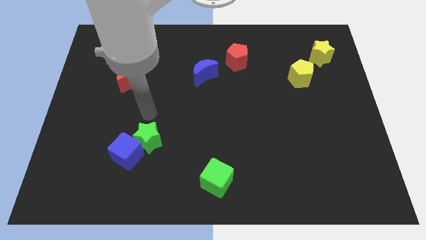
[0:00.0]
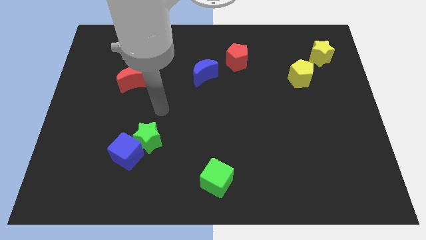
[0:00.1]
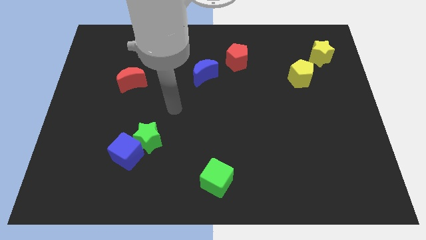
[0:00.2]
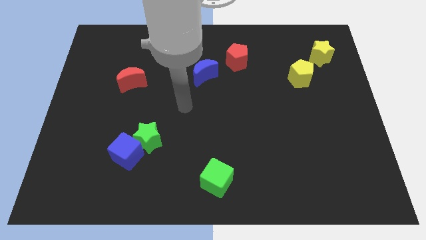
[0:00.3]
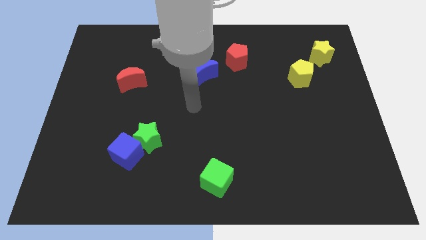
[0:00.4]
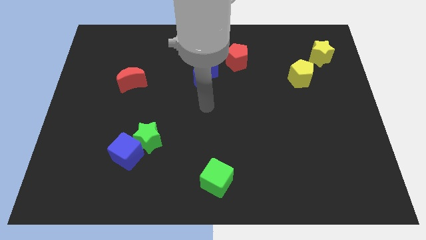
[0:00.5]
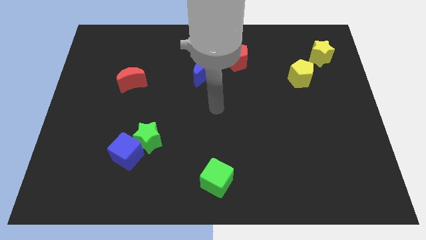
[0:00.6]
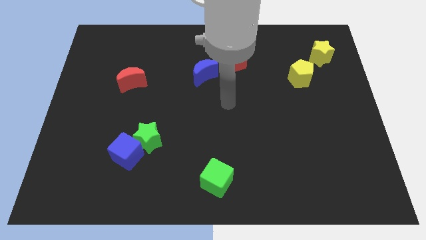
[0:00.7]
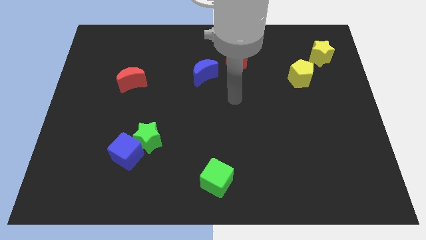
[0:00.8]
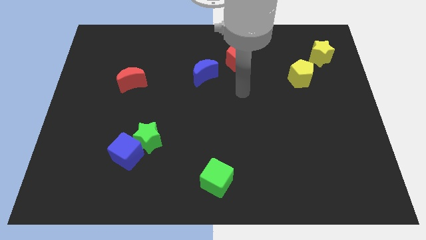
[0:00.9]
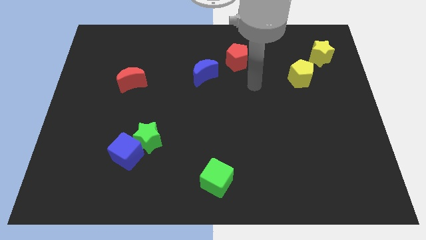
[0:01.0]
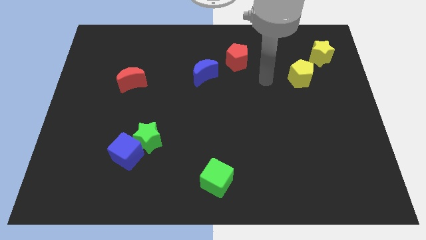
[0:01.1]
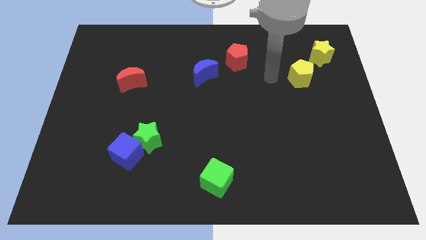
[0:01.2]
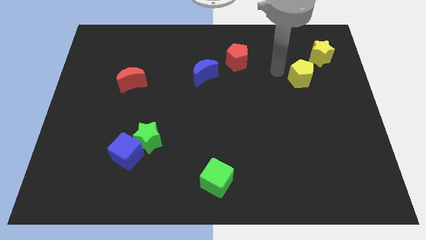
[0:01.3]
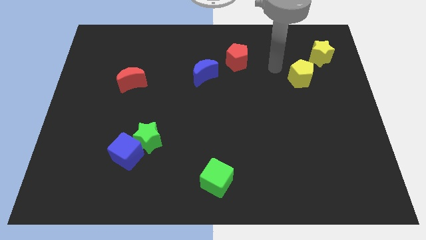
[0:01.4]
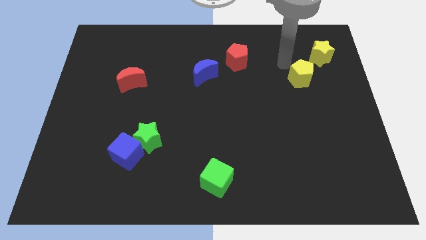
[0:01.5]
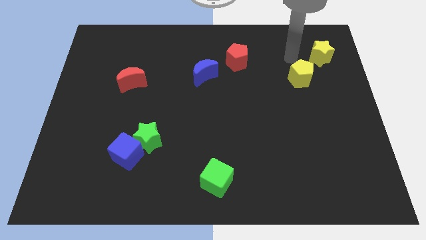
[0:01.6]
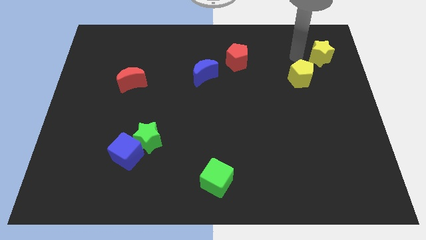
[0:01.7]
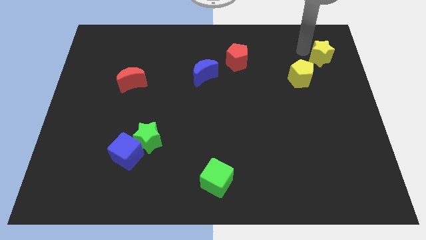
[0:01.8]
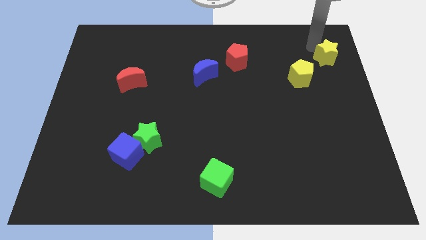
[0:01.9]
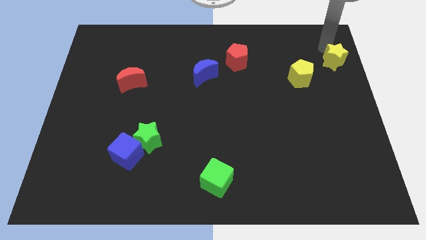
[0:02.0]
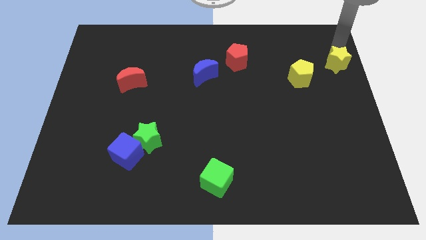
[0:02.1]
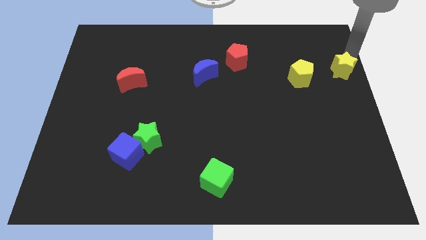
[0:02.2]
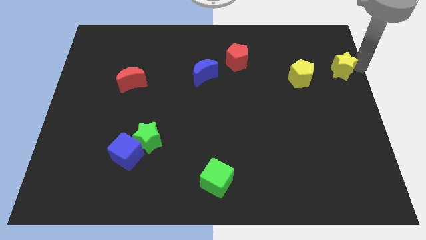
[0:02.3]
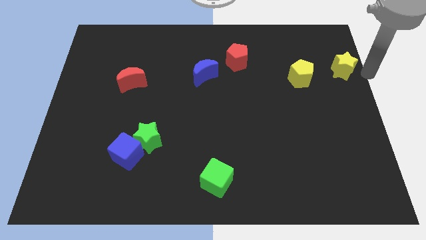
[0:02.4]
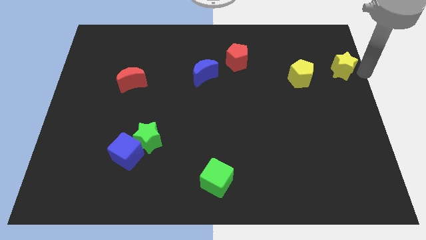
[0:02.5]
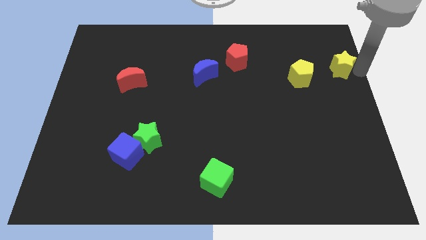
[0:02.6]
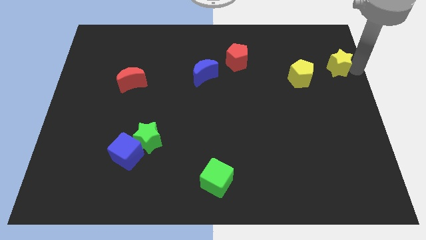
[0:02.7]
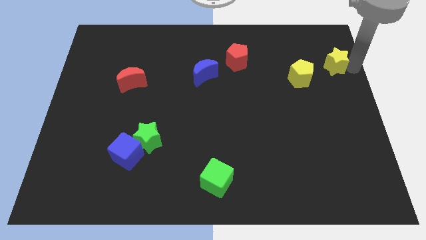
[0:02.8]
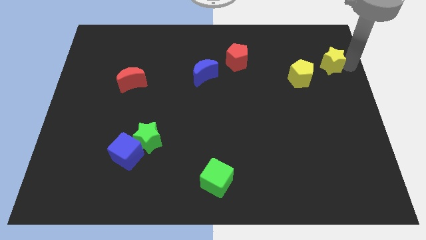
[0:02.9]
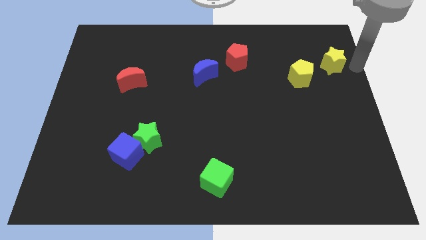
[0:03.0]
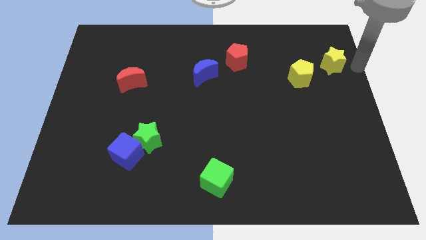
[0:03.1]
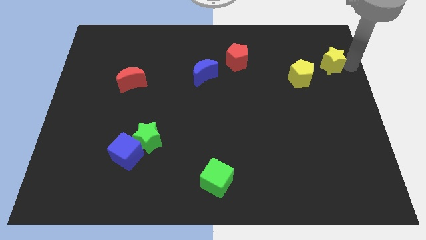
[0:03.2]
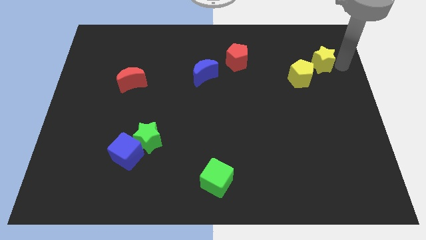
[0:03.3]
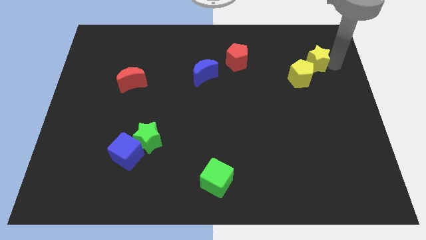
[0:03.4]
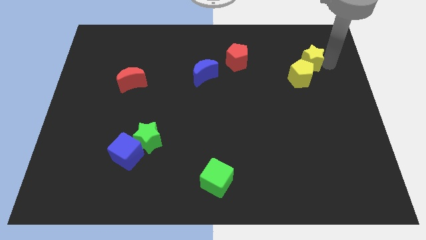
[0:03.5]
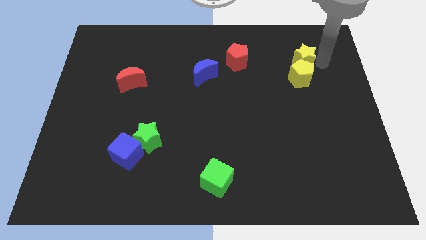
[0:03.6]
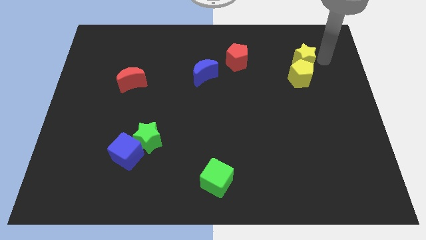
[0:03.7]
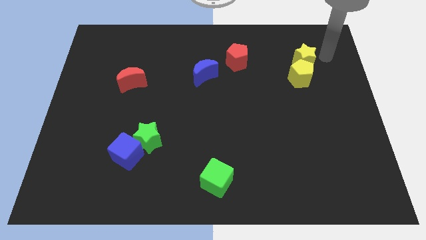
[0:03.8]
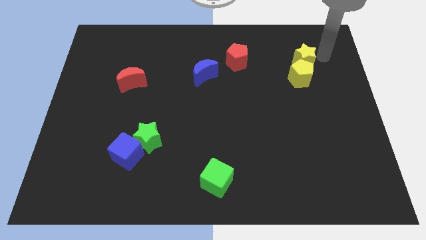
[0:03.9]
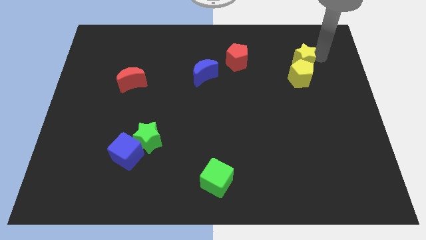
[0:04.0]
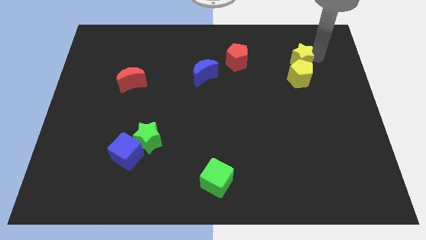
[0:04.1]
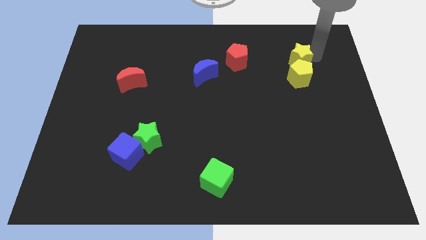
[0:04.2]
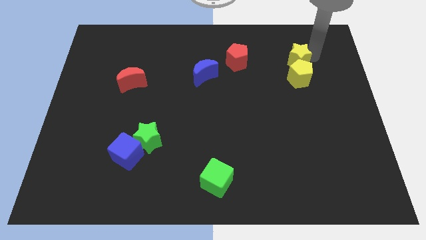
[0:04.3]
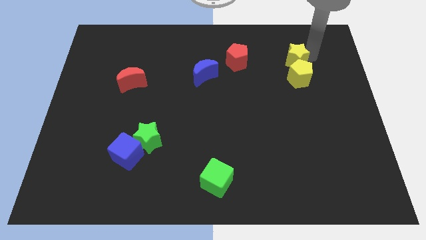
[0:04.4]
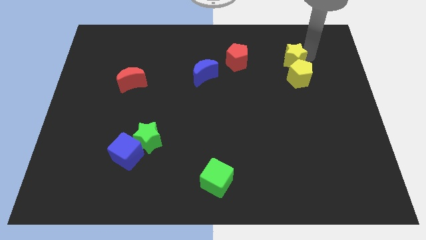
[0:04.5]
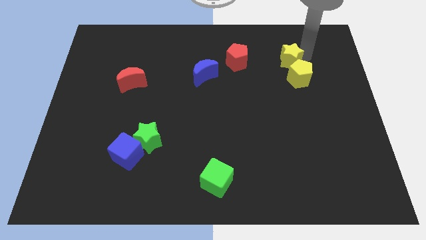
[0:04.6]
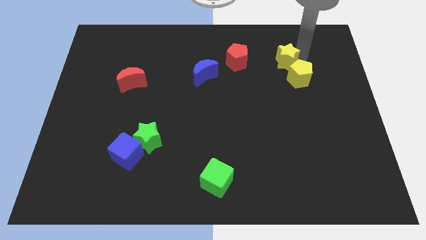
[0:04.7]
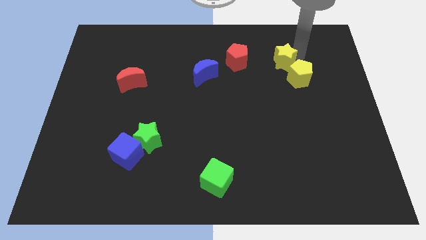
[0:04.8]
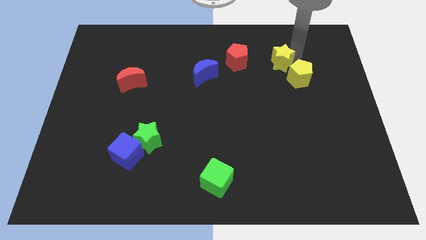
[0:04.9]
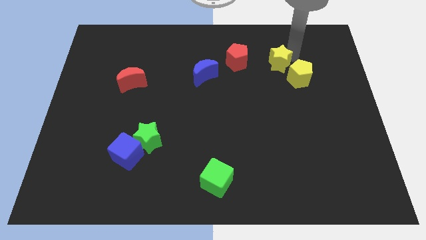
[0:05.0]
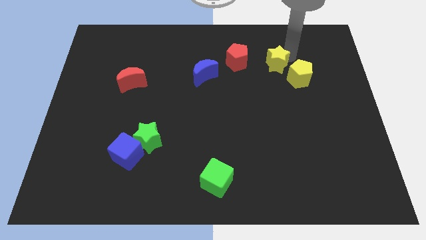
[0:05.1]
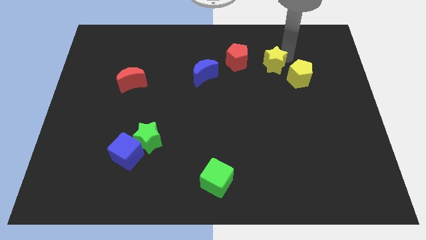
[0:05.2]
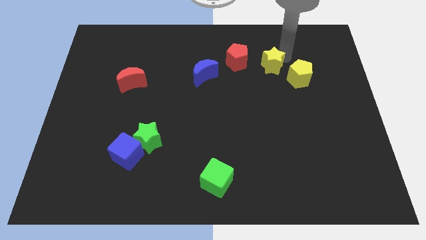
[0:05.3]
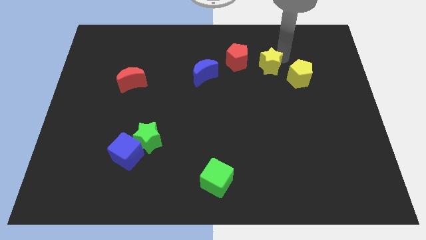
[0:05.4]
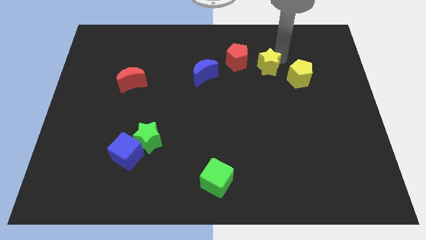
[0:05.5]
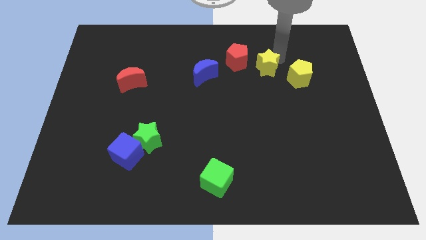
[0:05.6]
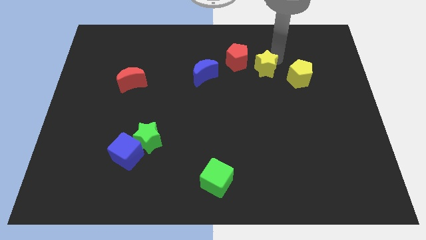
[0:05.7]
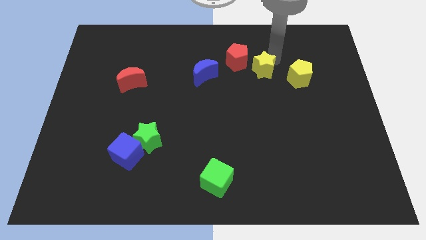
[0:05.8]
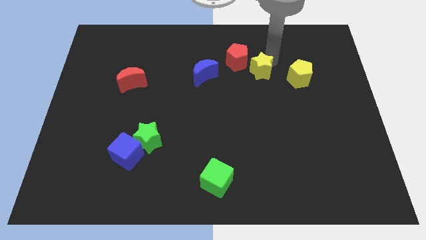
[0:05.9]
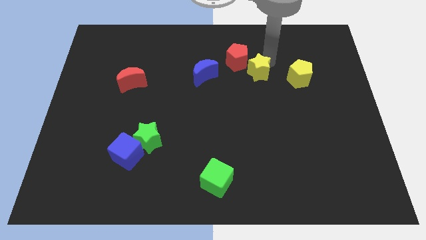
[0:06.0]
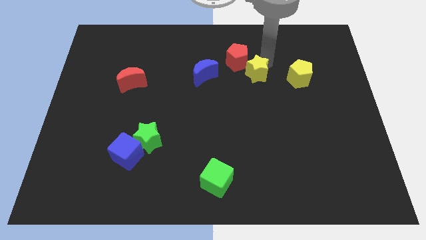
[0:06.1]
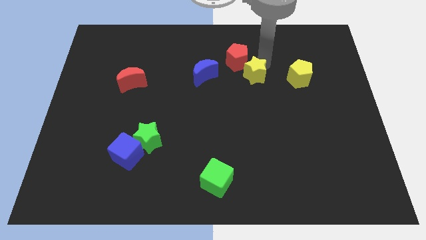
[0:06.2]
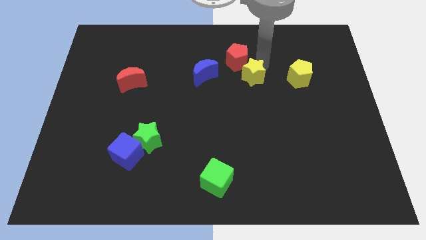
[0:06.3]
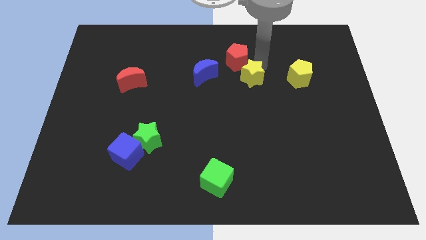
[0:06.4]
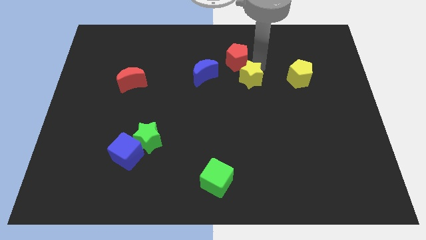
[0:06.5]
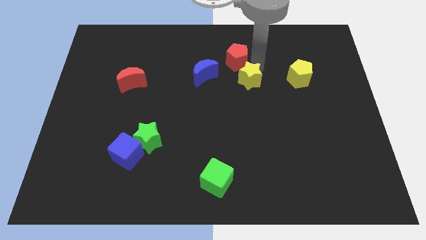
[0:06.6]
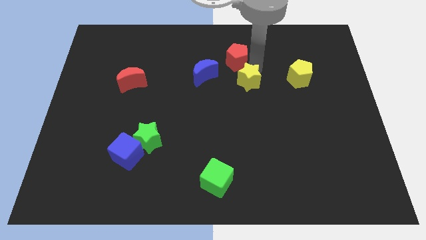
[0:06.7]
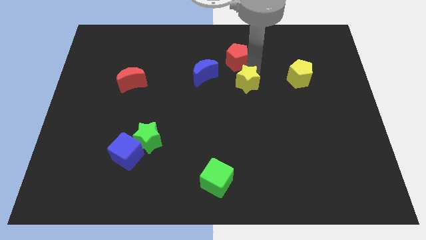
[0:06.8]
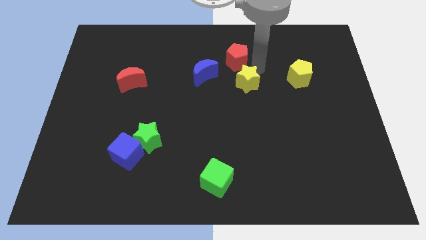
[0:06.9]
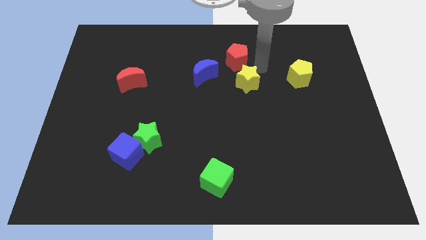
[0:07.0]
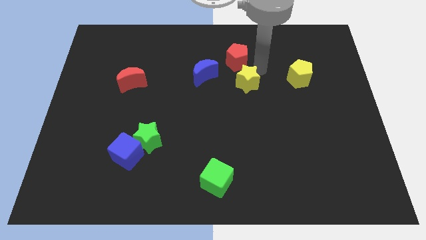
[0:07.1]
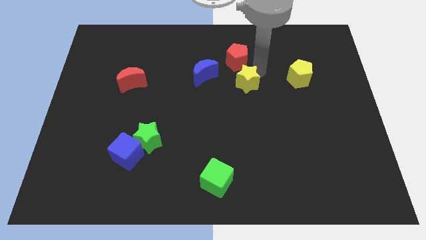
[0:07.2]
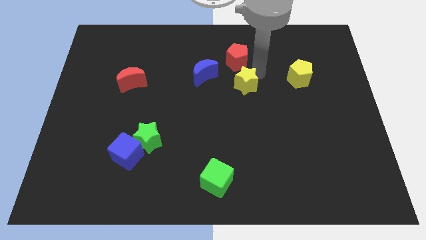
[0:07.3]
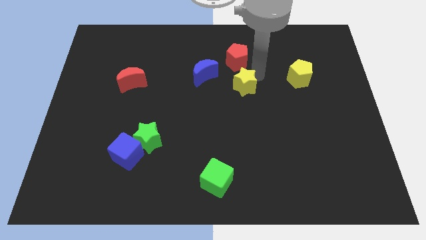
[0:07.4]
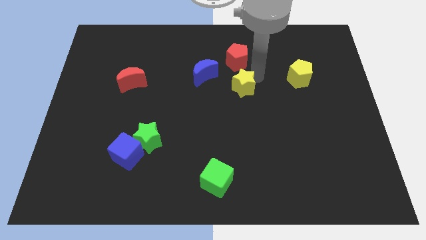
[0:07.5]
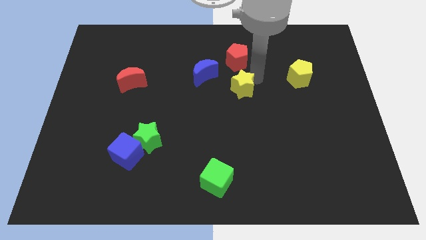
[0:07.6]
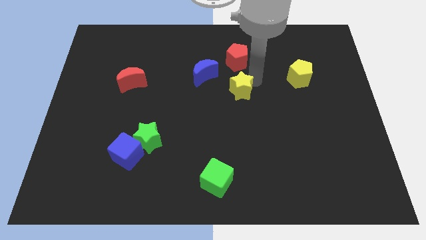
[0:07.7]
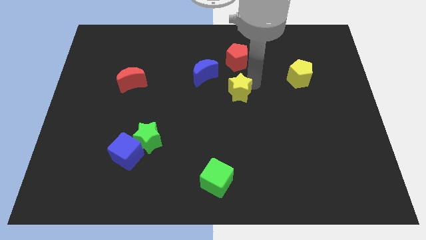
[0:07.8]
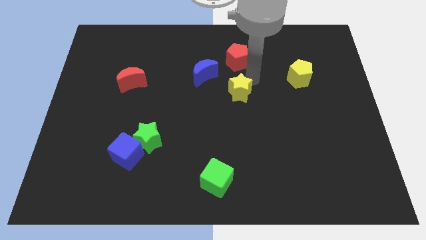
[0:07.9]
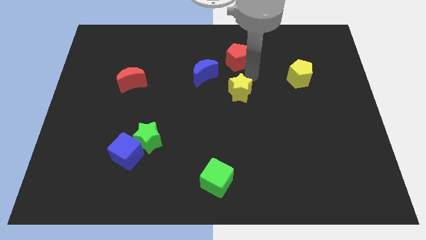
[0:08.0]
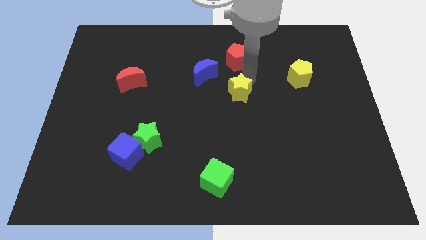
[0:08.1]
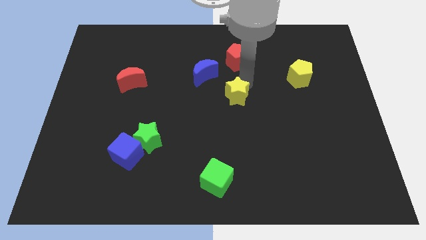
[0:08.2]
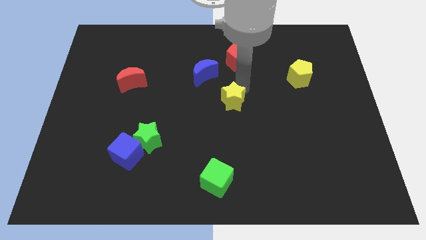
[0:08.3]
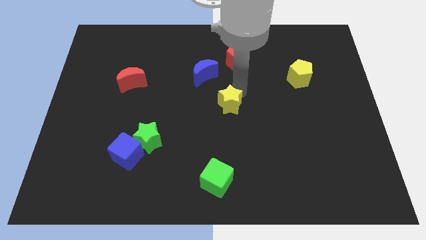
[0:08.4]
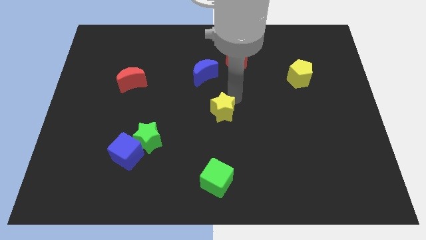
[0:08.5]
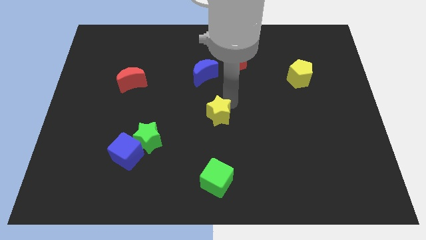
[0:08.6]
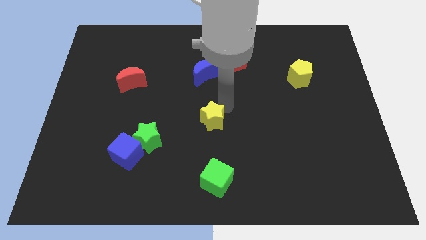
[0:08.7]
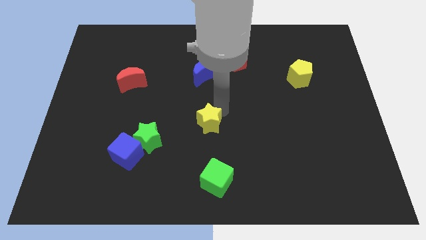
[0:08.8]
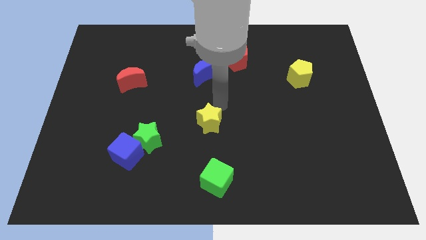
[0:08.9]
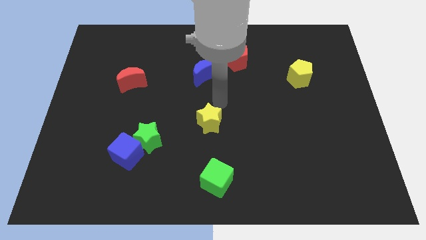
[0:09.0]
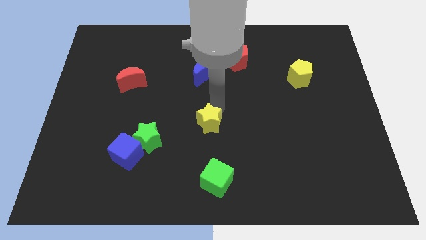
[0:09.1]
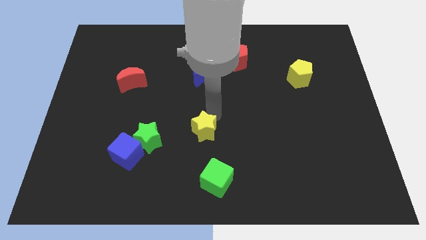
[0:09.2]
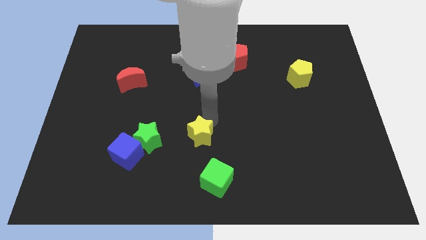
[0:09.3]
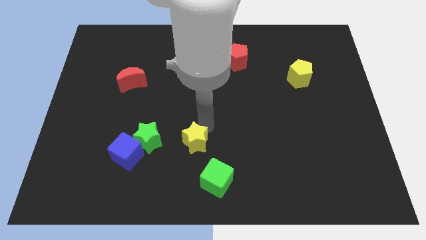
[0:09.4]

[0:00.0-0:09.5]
put the yellow star to the top left of the green cube
